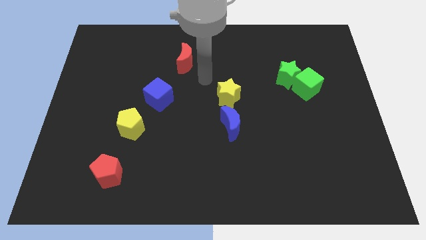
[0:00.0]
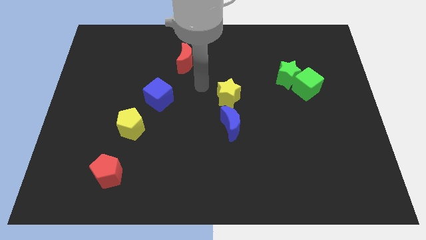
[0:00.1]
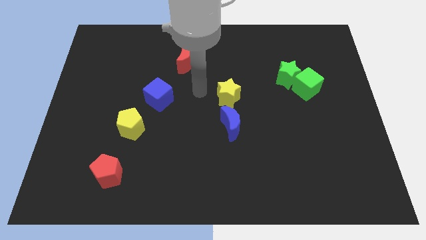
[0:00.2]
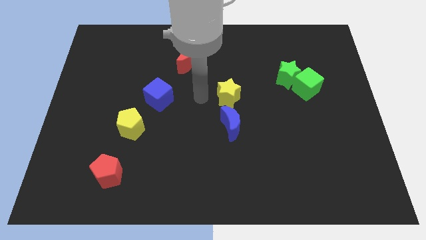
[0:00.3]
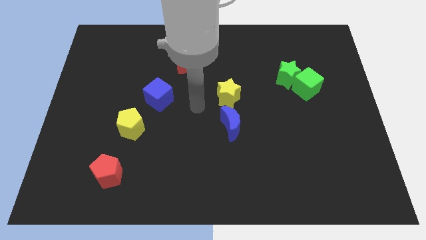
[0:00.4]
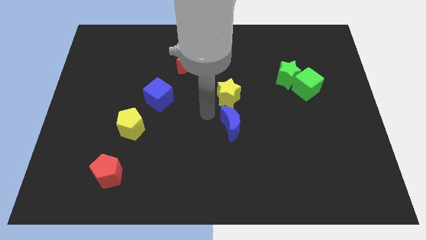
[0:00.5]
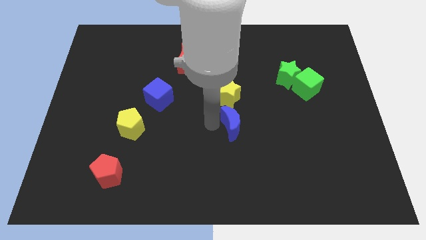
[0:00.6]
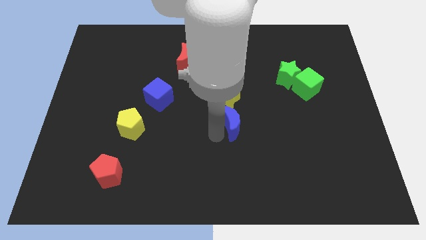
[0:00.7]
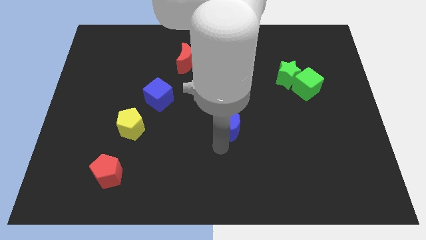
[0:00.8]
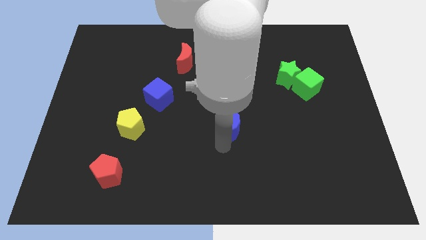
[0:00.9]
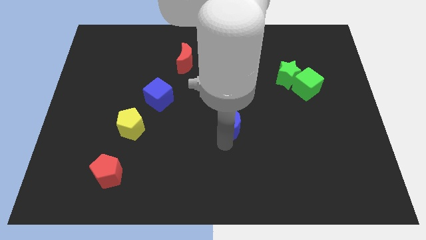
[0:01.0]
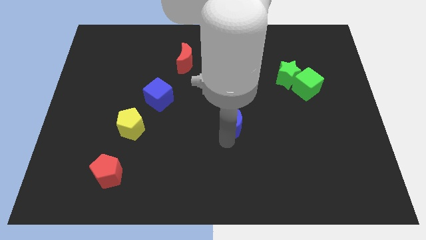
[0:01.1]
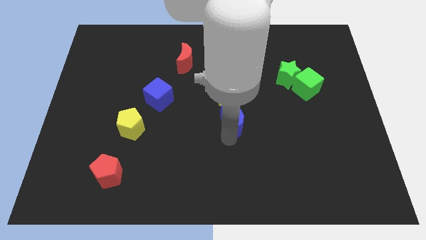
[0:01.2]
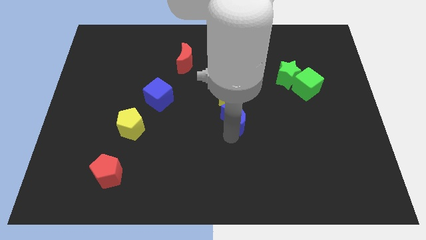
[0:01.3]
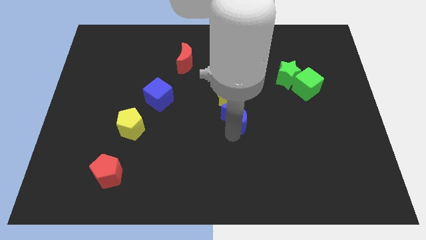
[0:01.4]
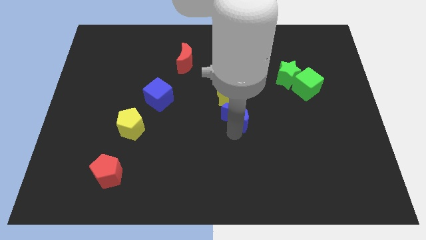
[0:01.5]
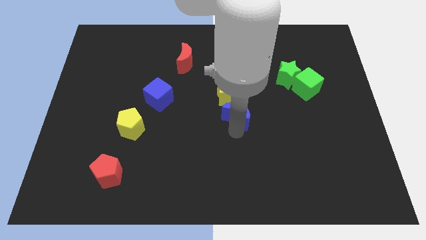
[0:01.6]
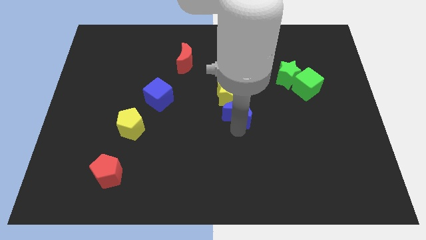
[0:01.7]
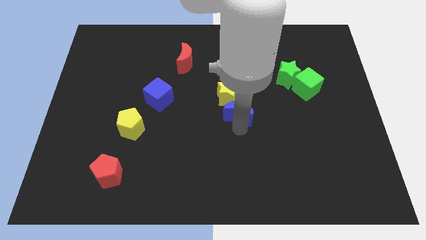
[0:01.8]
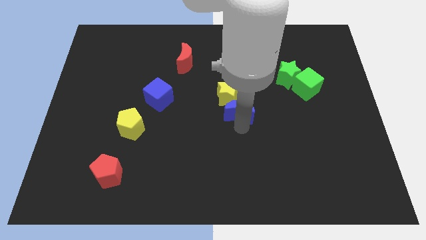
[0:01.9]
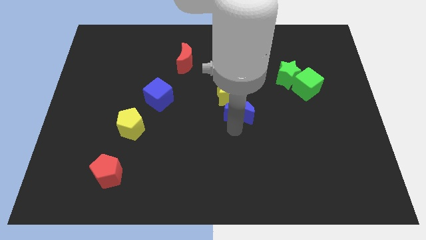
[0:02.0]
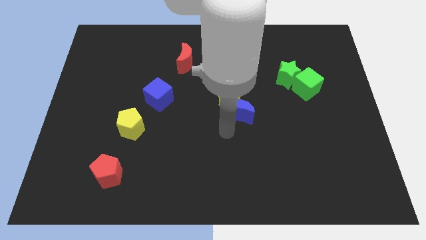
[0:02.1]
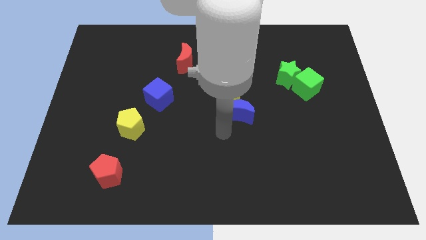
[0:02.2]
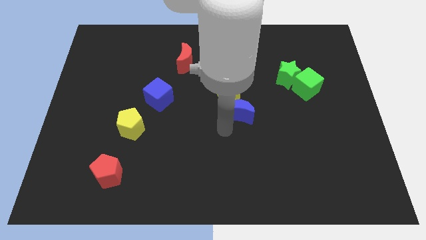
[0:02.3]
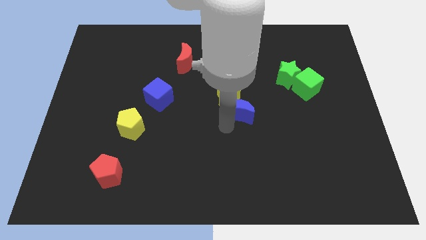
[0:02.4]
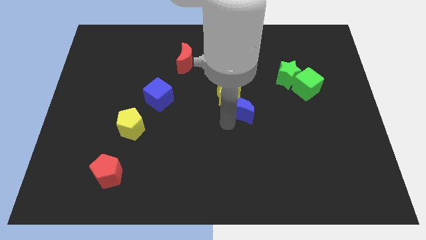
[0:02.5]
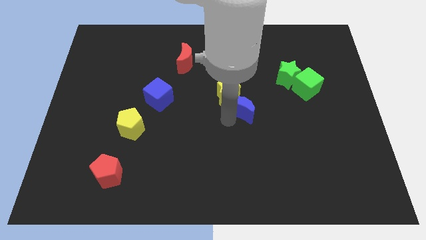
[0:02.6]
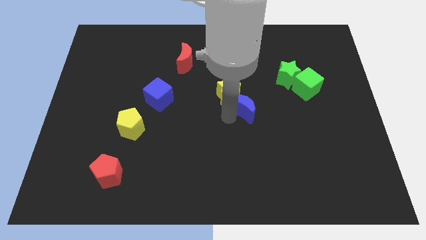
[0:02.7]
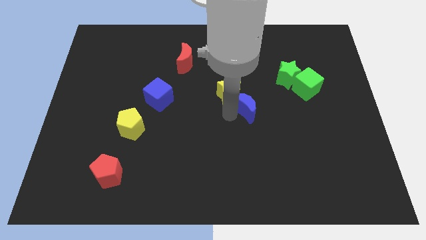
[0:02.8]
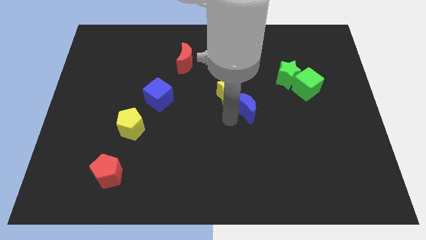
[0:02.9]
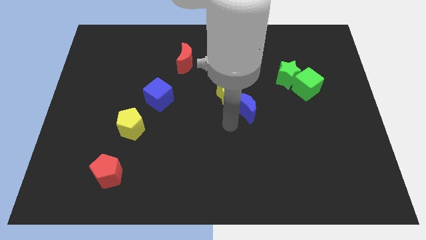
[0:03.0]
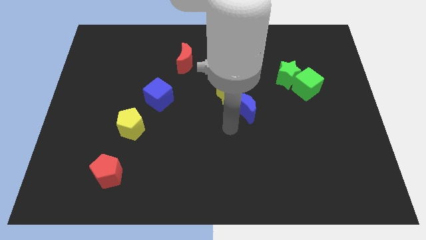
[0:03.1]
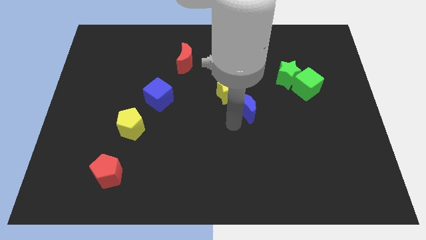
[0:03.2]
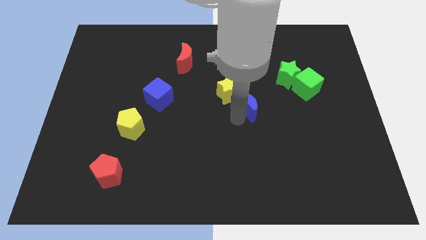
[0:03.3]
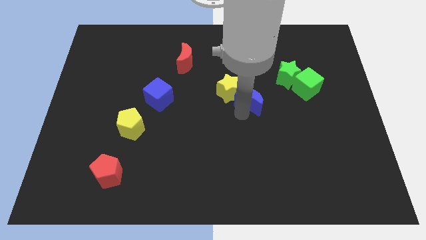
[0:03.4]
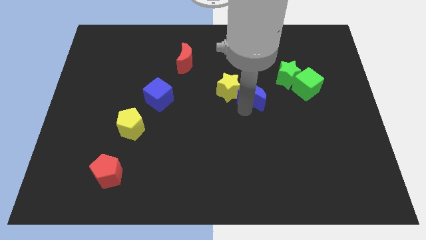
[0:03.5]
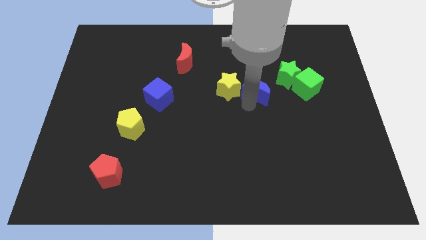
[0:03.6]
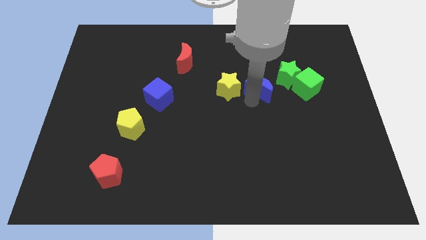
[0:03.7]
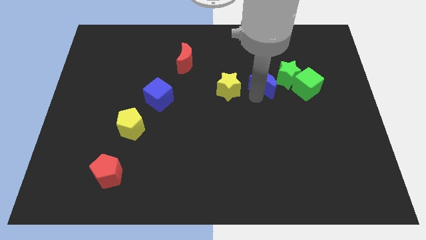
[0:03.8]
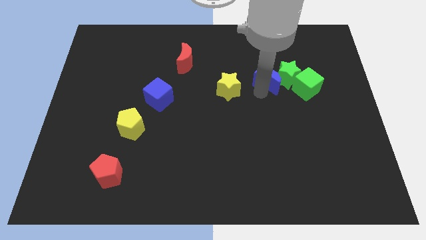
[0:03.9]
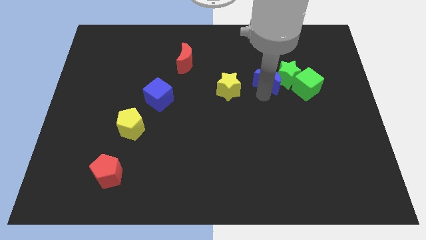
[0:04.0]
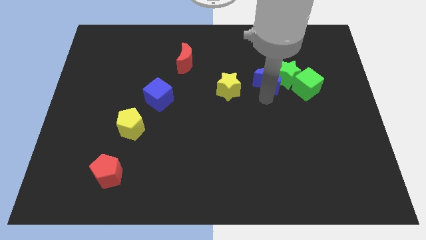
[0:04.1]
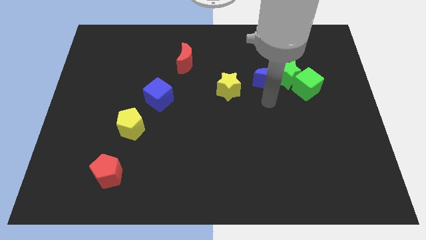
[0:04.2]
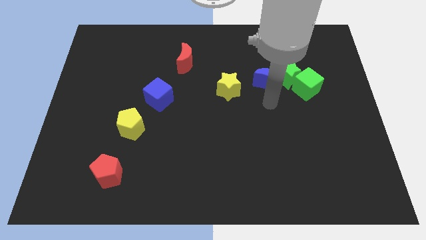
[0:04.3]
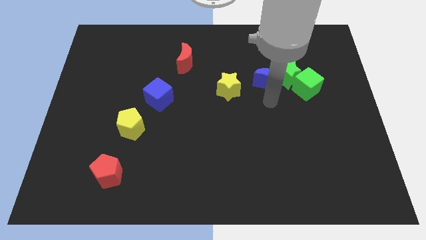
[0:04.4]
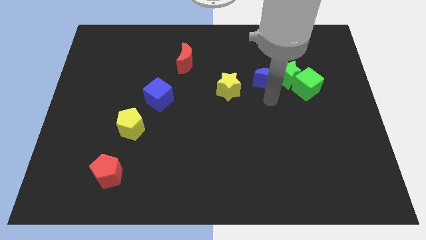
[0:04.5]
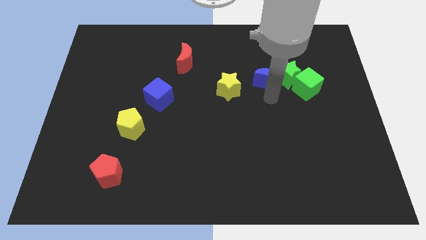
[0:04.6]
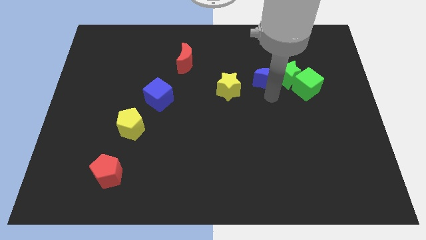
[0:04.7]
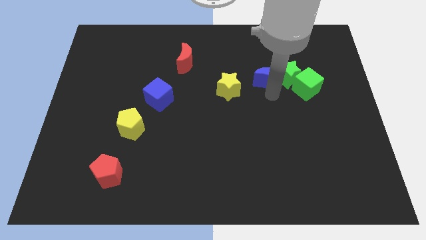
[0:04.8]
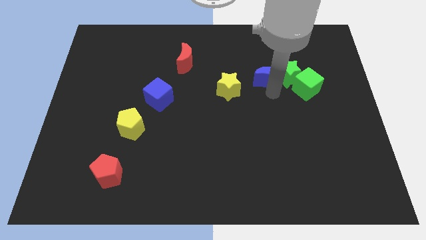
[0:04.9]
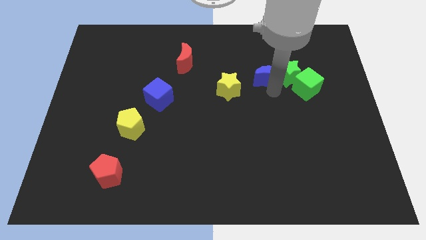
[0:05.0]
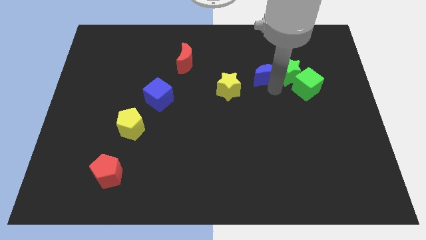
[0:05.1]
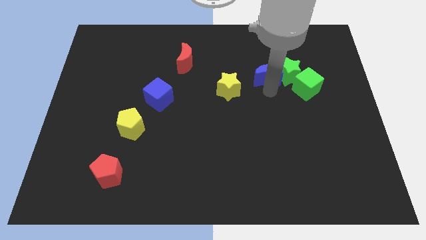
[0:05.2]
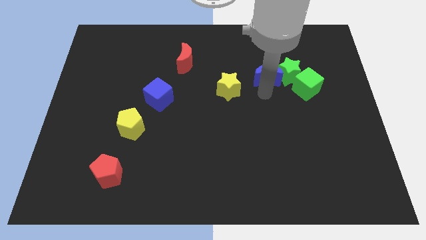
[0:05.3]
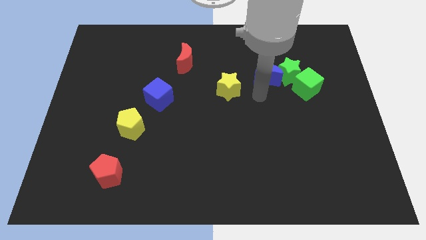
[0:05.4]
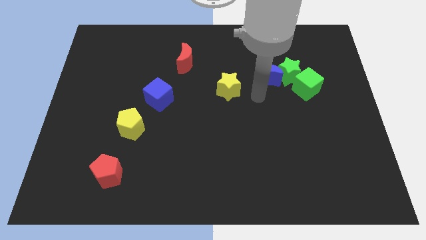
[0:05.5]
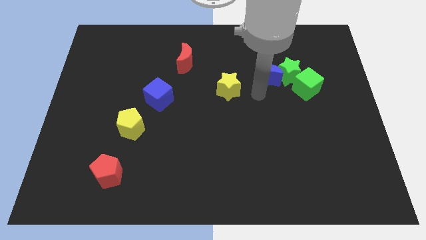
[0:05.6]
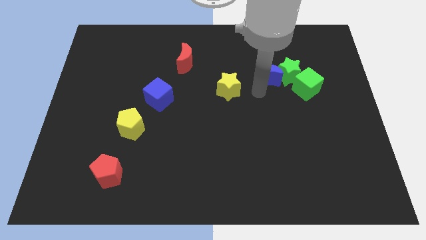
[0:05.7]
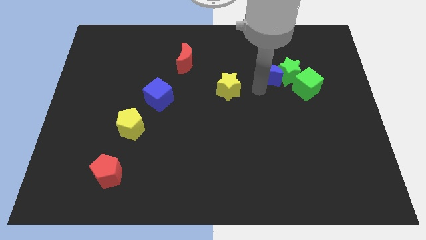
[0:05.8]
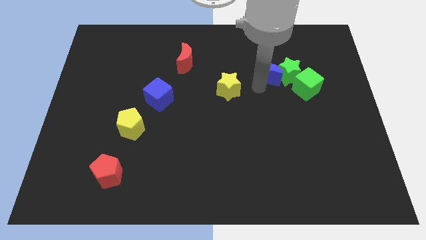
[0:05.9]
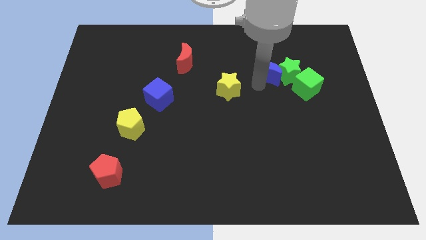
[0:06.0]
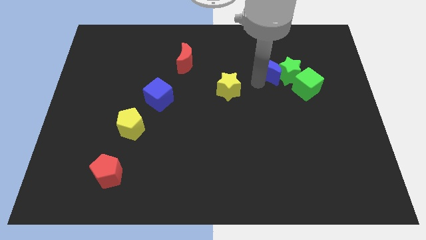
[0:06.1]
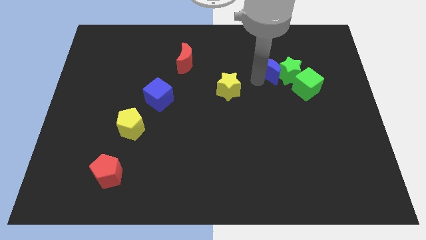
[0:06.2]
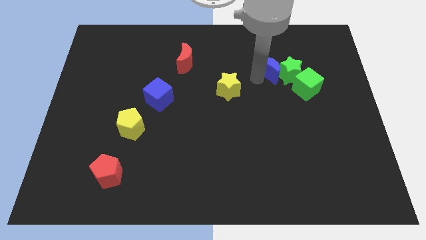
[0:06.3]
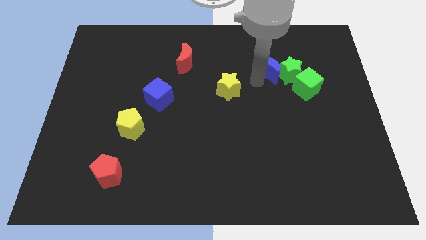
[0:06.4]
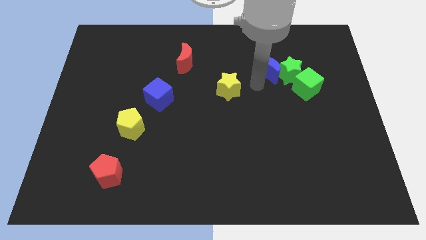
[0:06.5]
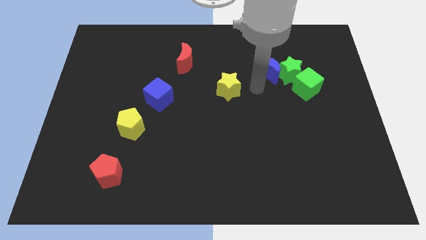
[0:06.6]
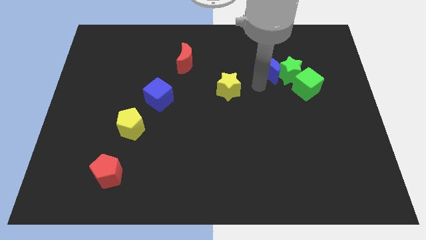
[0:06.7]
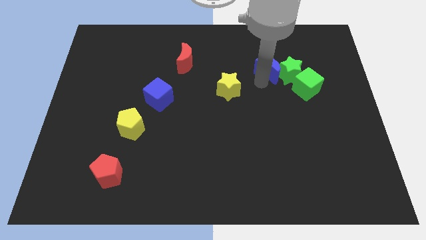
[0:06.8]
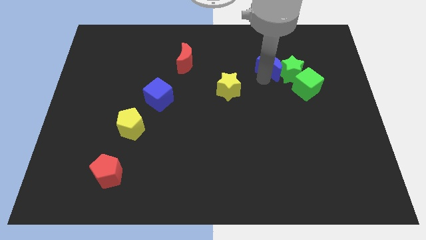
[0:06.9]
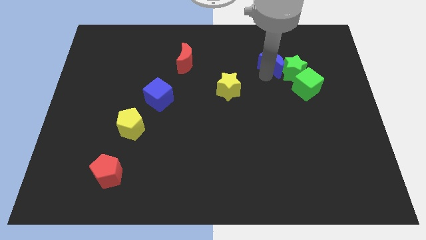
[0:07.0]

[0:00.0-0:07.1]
push the blue moon upwards and to the right diagonally

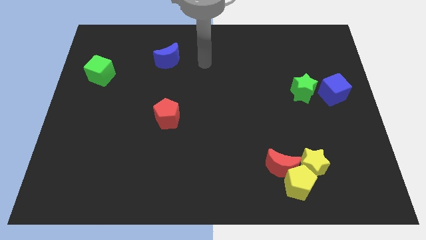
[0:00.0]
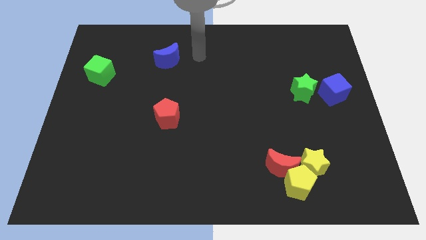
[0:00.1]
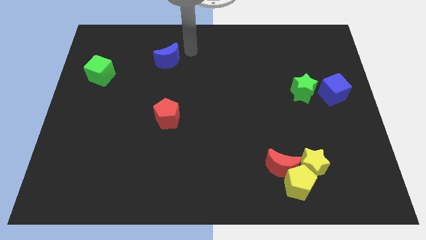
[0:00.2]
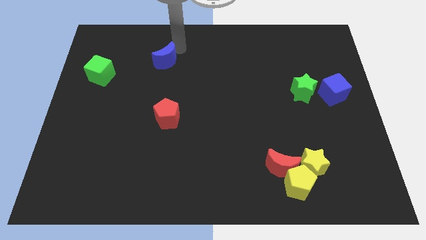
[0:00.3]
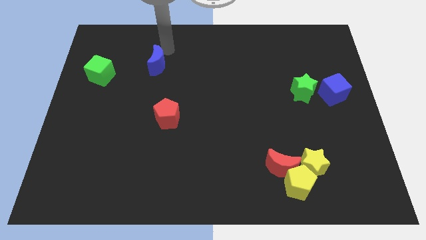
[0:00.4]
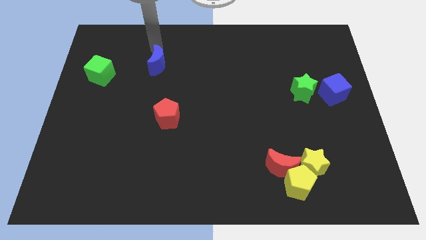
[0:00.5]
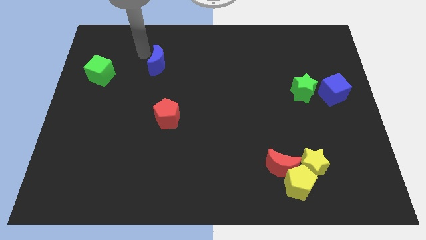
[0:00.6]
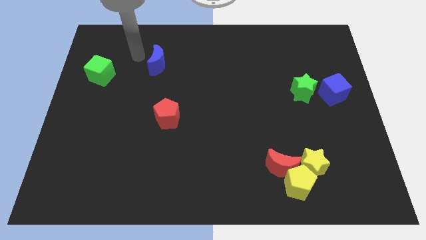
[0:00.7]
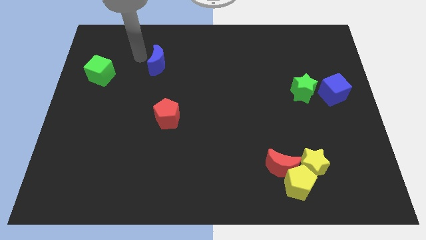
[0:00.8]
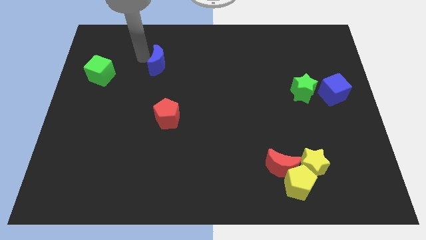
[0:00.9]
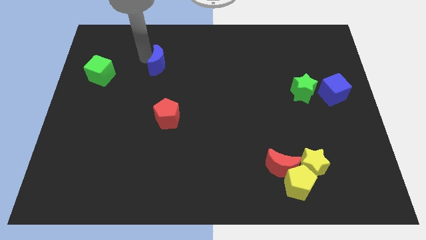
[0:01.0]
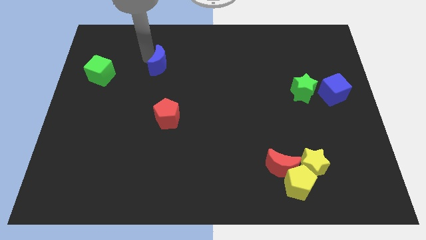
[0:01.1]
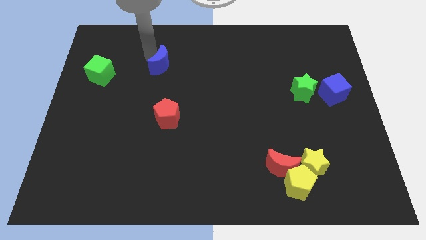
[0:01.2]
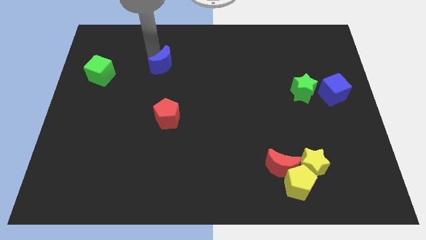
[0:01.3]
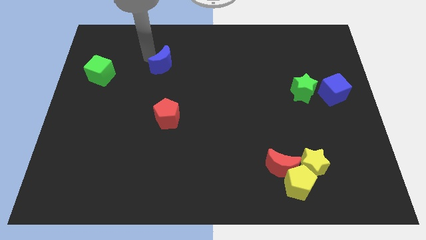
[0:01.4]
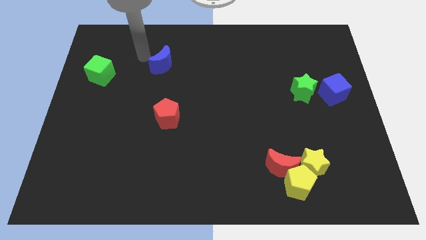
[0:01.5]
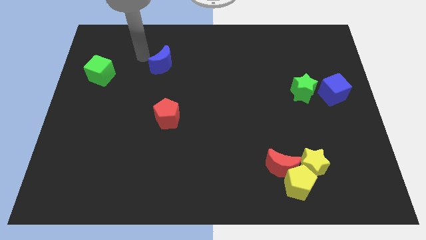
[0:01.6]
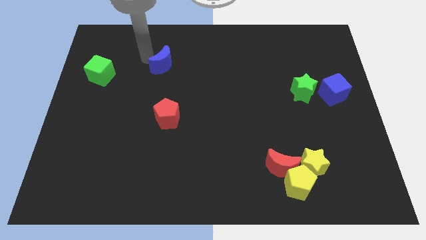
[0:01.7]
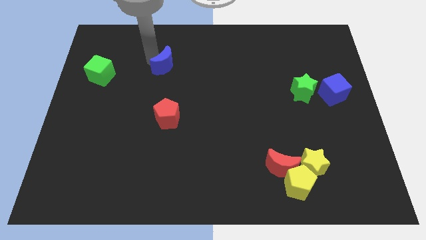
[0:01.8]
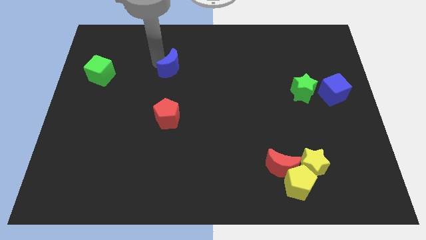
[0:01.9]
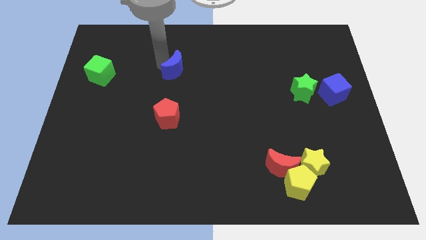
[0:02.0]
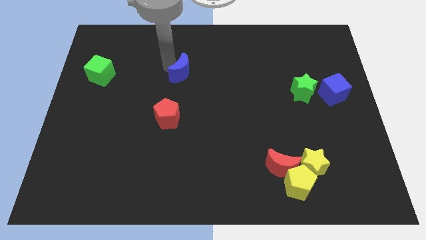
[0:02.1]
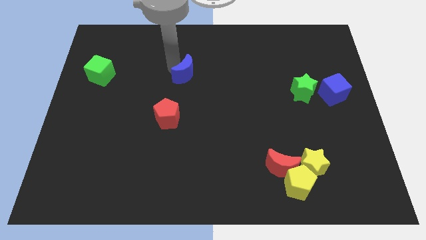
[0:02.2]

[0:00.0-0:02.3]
move the blue moon slightly down and then to the right
